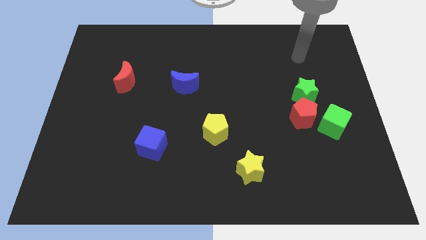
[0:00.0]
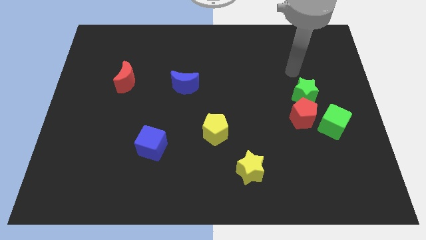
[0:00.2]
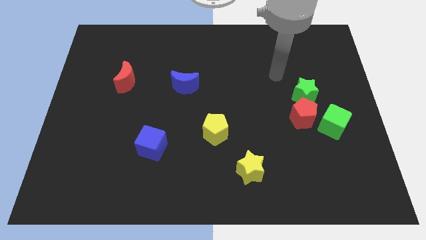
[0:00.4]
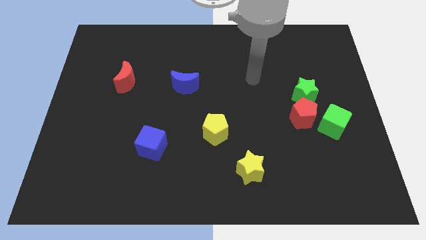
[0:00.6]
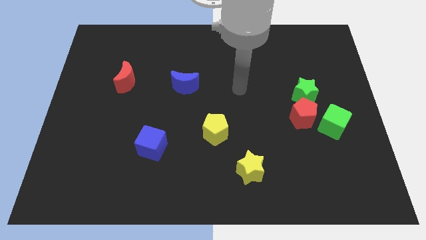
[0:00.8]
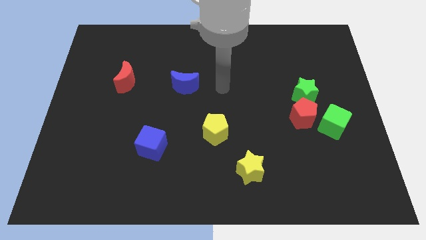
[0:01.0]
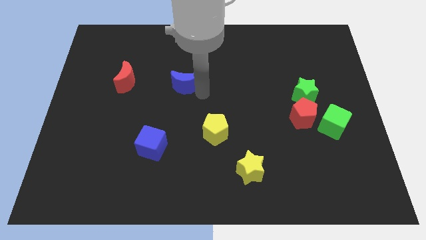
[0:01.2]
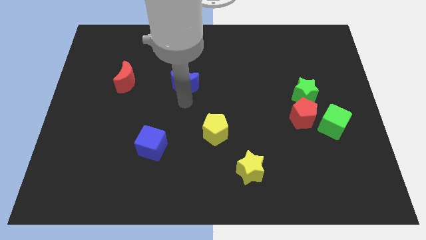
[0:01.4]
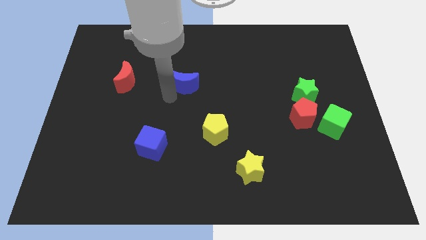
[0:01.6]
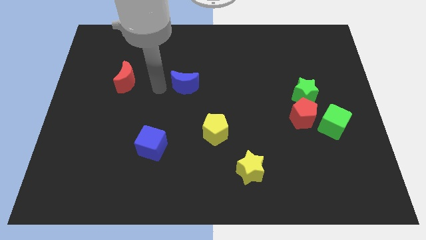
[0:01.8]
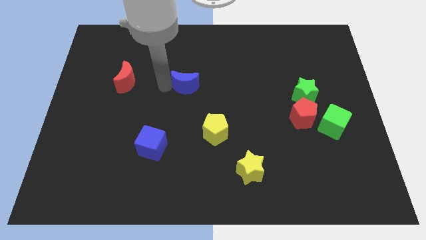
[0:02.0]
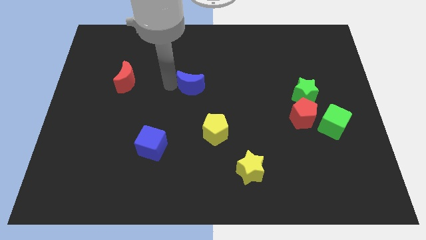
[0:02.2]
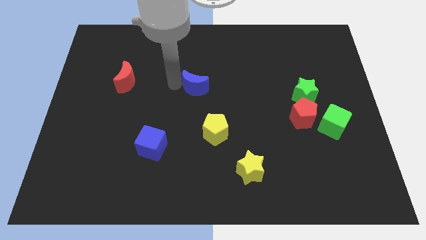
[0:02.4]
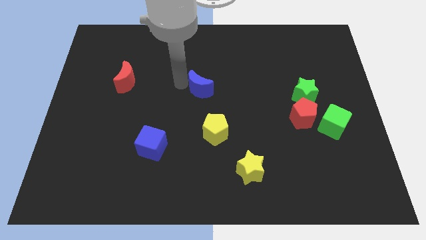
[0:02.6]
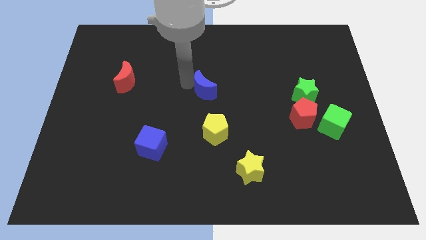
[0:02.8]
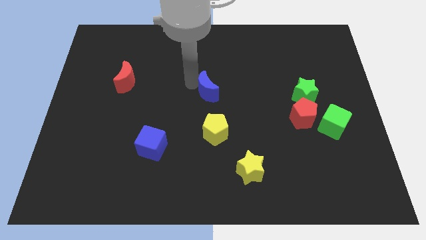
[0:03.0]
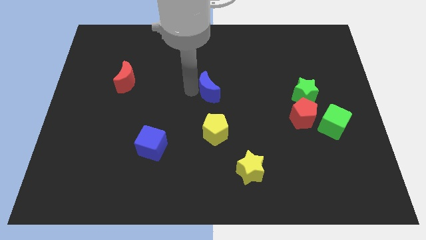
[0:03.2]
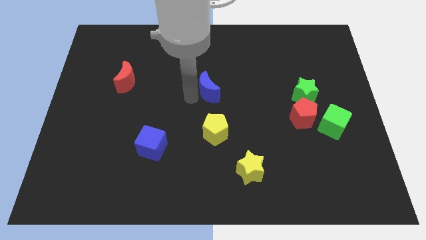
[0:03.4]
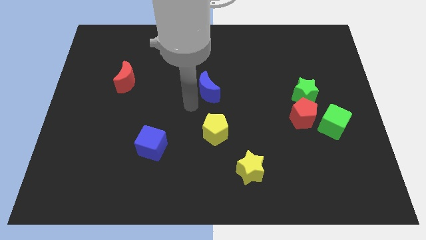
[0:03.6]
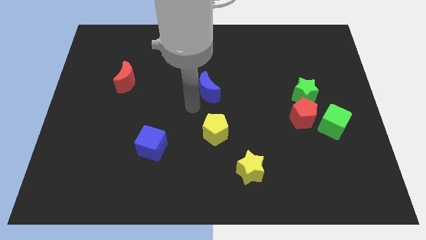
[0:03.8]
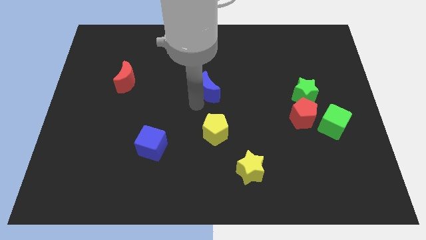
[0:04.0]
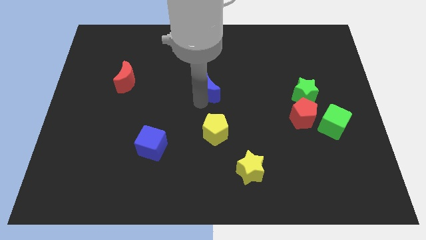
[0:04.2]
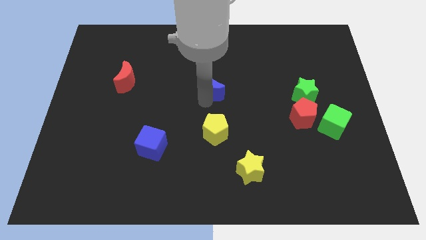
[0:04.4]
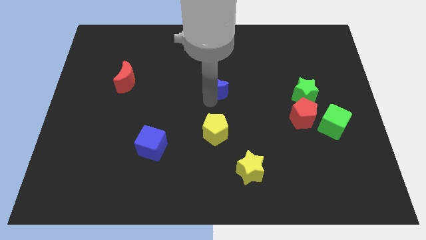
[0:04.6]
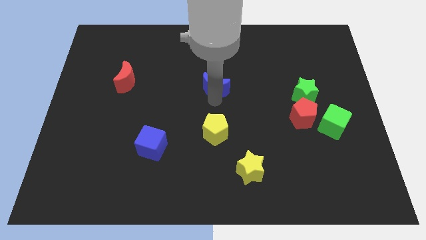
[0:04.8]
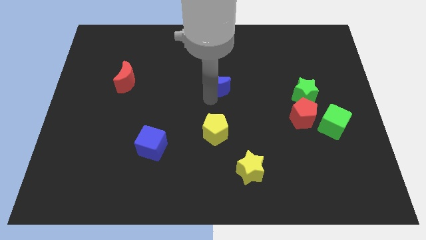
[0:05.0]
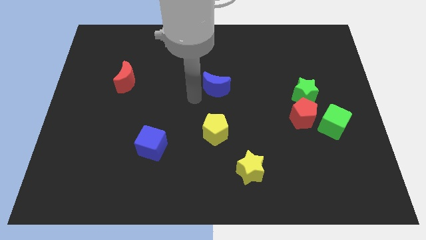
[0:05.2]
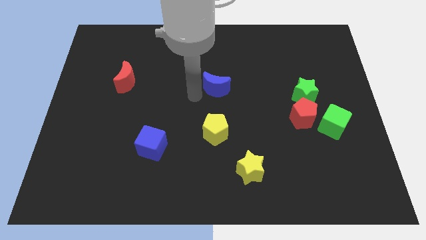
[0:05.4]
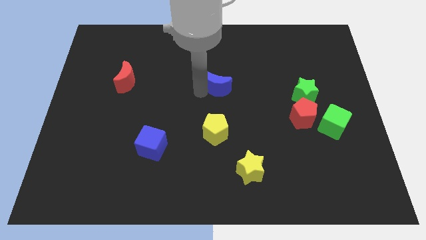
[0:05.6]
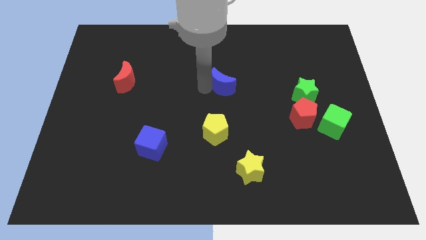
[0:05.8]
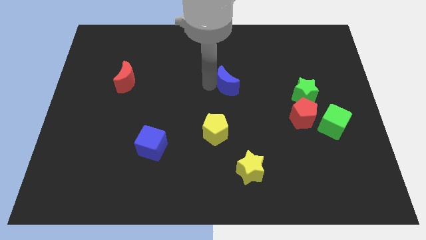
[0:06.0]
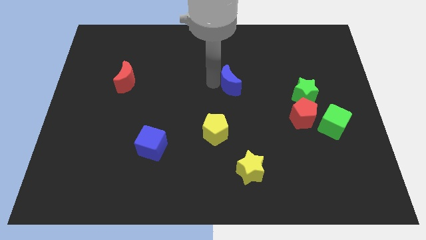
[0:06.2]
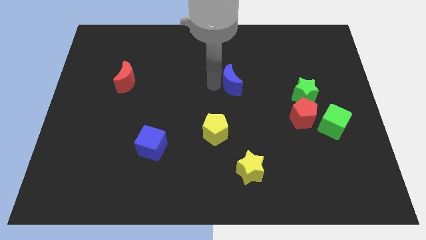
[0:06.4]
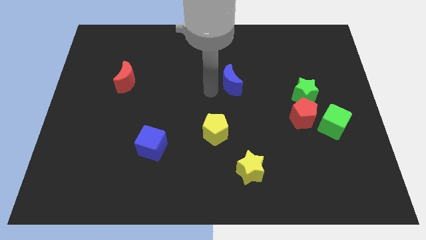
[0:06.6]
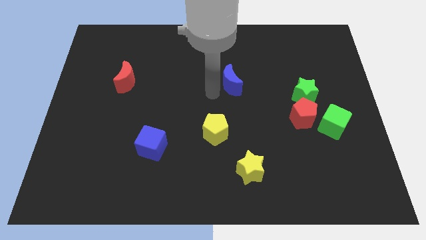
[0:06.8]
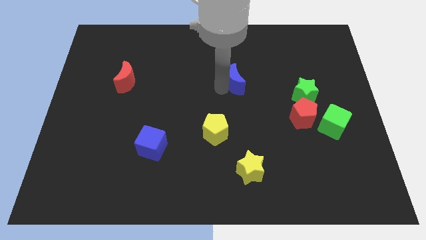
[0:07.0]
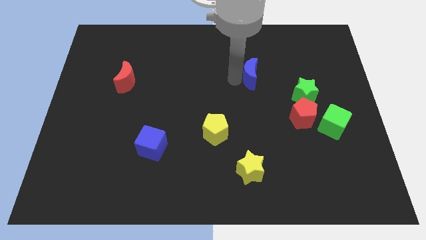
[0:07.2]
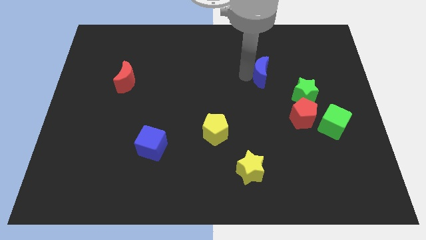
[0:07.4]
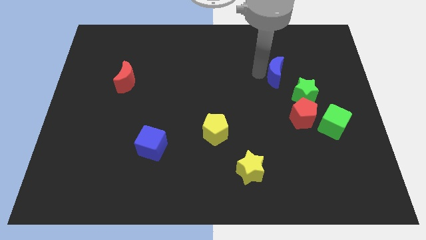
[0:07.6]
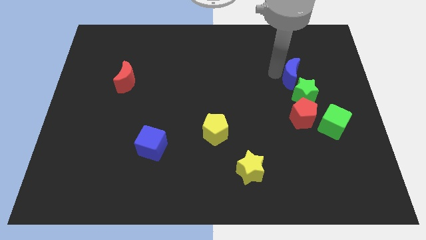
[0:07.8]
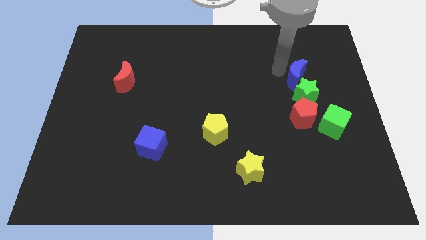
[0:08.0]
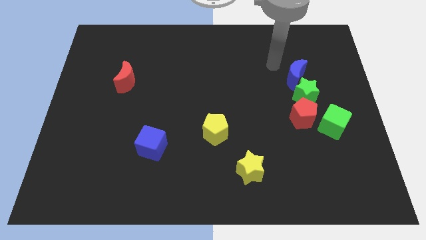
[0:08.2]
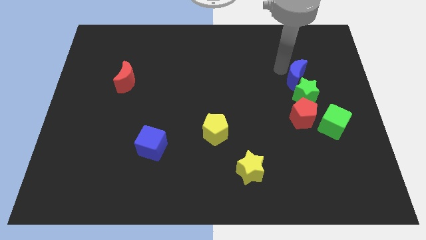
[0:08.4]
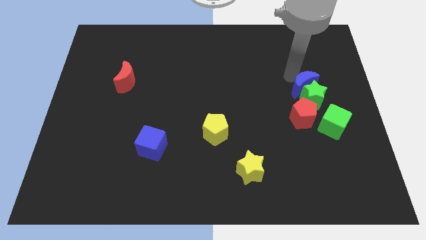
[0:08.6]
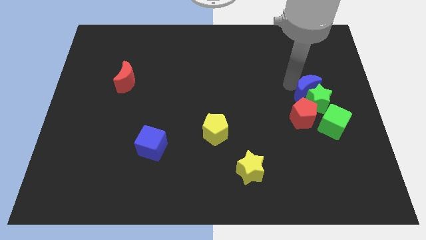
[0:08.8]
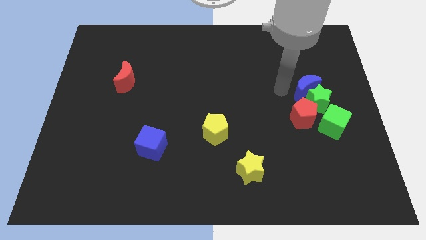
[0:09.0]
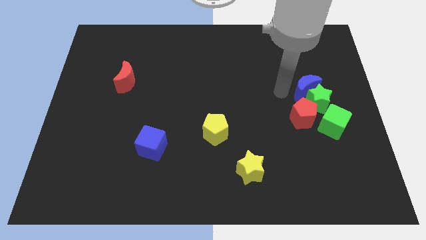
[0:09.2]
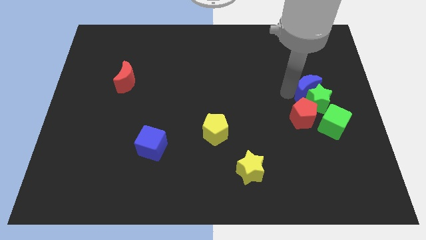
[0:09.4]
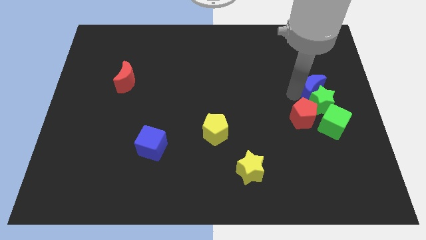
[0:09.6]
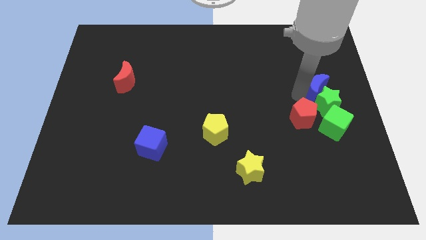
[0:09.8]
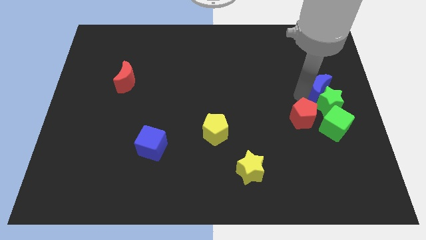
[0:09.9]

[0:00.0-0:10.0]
put the blue moon to the center right

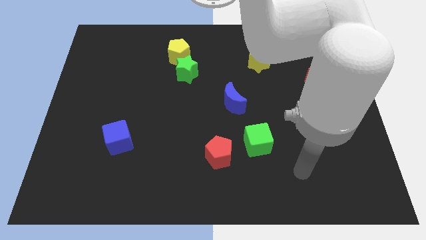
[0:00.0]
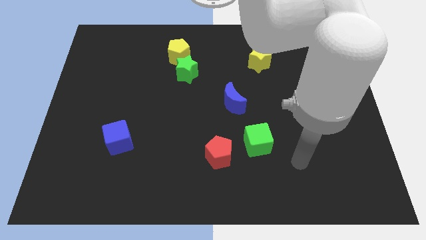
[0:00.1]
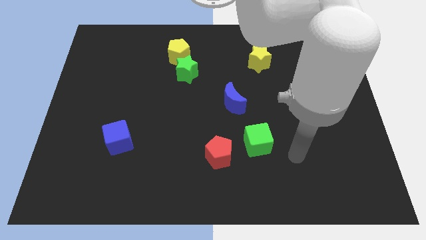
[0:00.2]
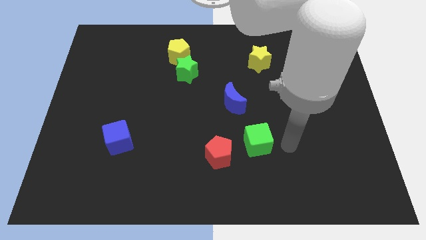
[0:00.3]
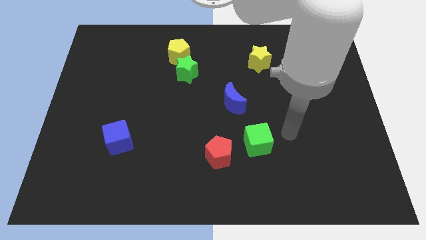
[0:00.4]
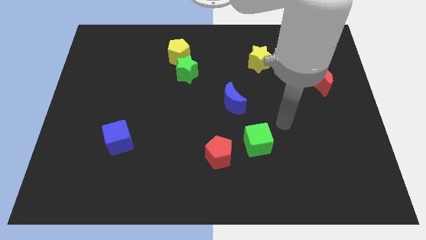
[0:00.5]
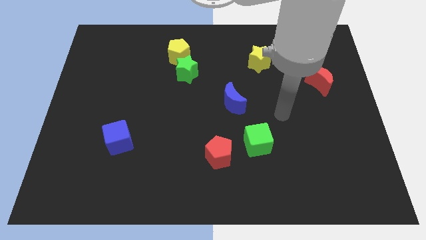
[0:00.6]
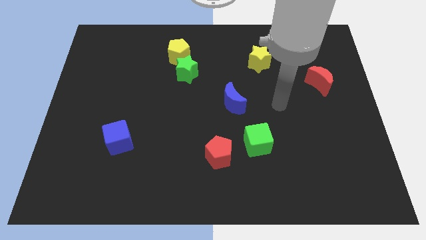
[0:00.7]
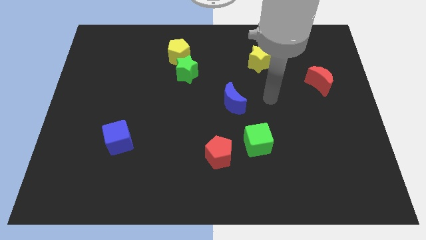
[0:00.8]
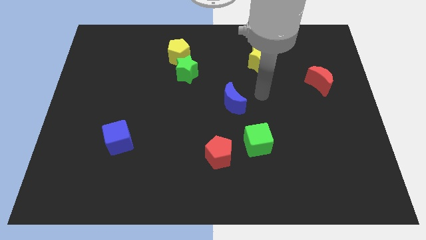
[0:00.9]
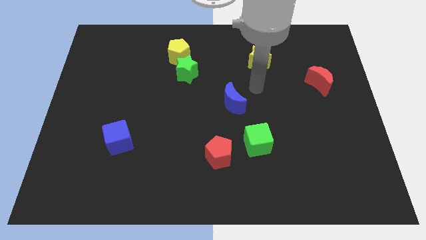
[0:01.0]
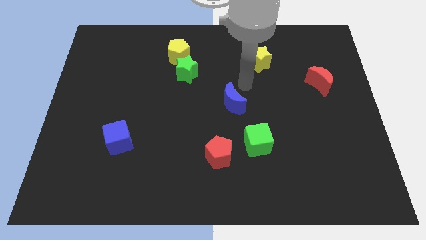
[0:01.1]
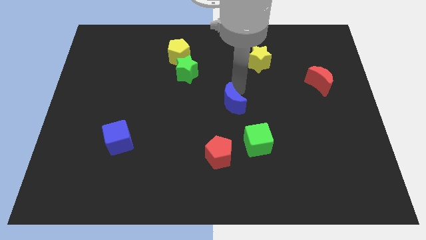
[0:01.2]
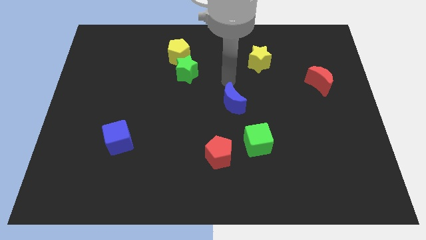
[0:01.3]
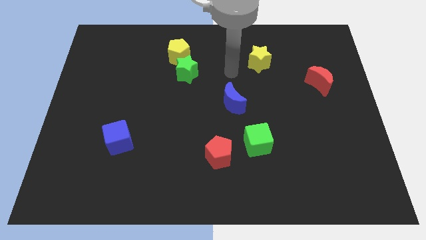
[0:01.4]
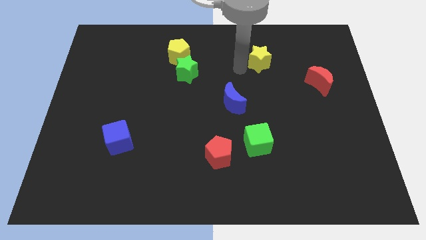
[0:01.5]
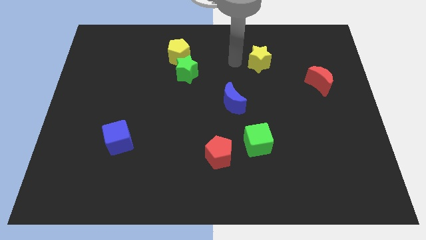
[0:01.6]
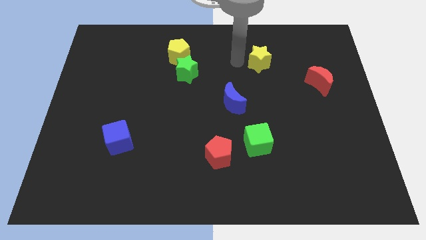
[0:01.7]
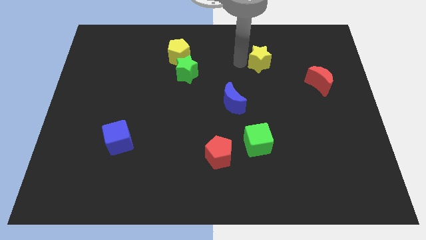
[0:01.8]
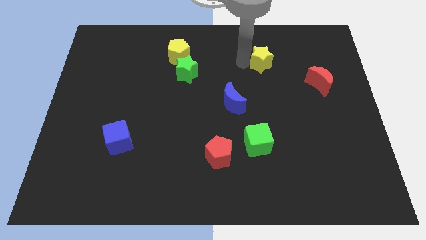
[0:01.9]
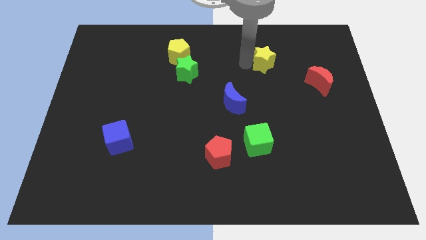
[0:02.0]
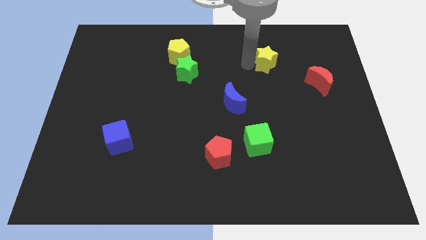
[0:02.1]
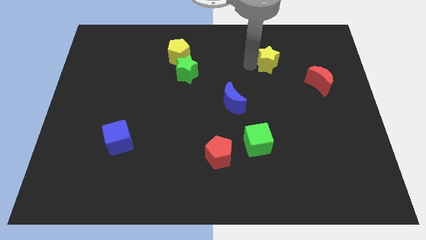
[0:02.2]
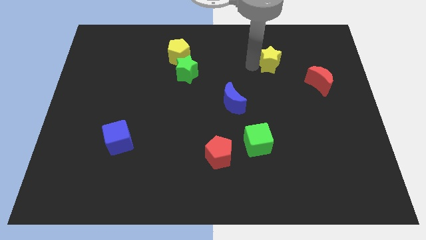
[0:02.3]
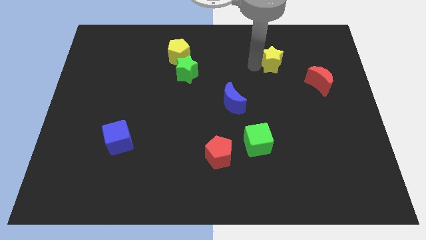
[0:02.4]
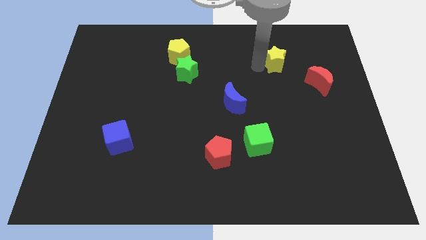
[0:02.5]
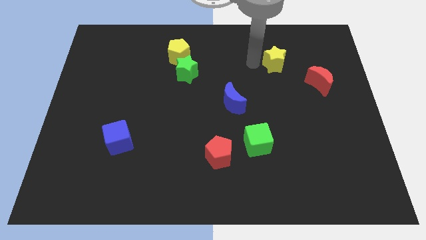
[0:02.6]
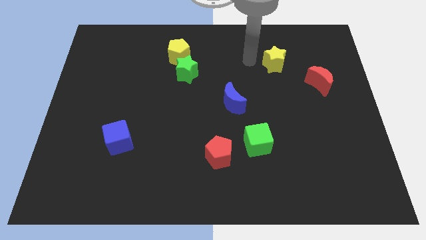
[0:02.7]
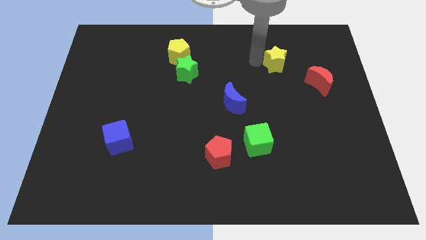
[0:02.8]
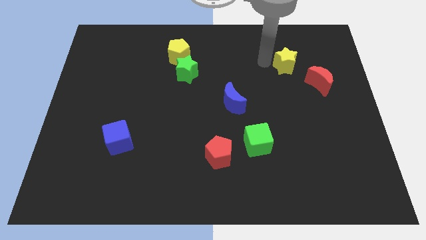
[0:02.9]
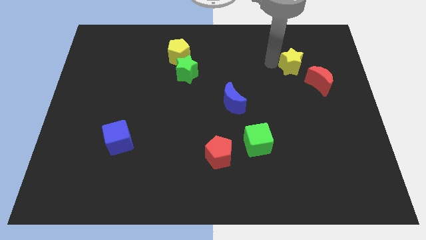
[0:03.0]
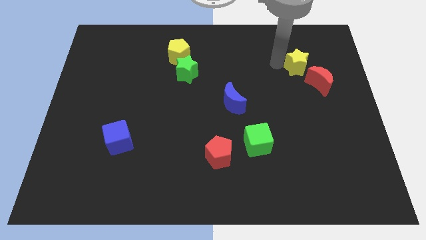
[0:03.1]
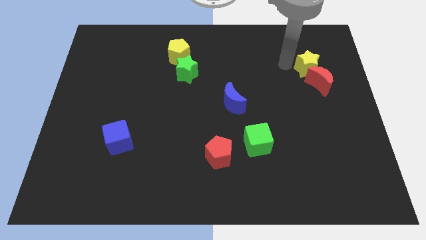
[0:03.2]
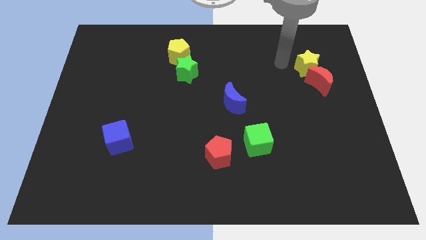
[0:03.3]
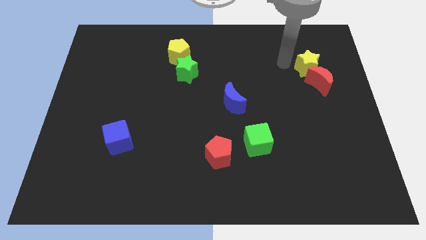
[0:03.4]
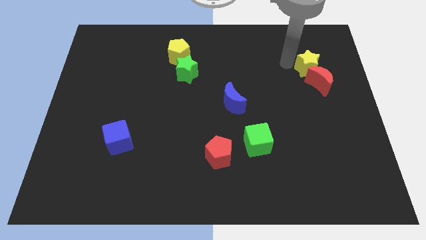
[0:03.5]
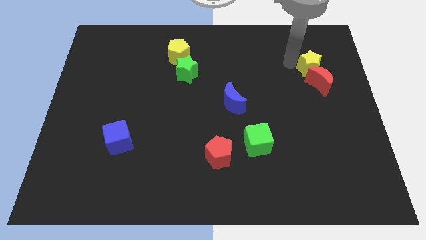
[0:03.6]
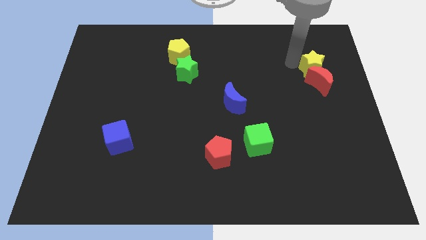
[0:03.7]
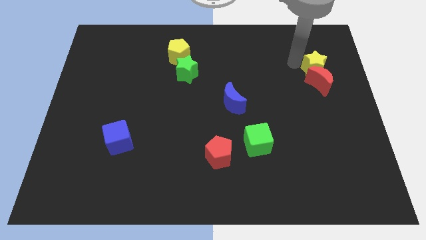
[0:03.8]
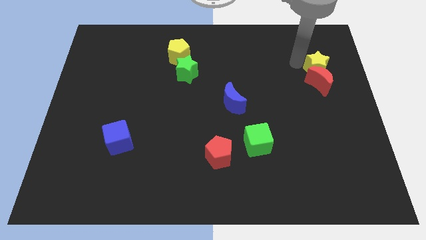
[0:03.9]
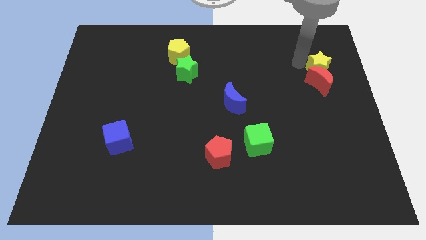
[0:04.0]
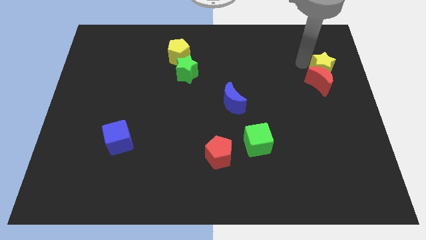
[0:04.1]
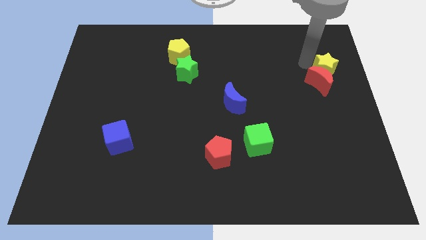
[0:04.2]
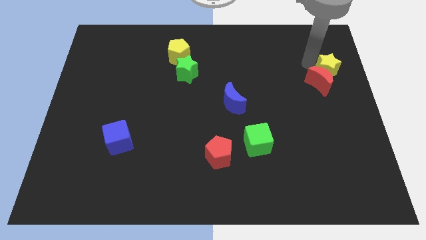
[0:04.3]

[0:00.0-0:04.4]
put the yellow star to the center right
